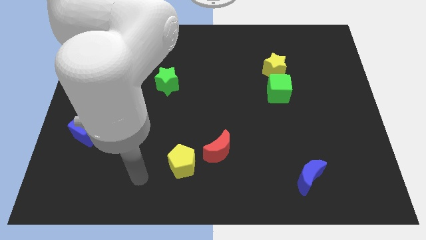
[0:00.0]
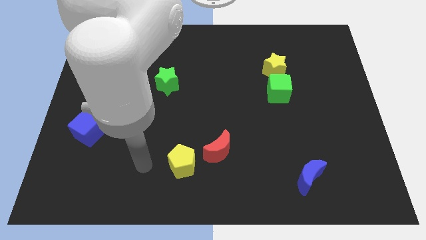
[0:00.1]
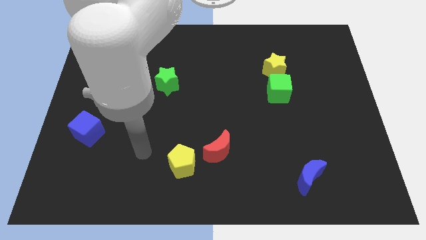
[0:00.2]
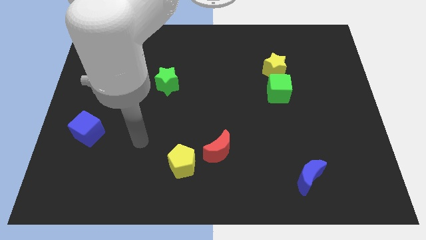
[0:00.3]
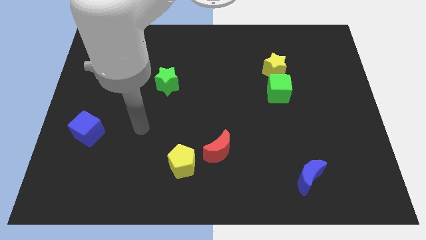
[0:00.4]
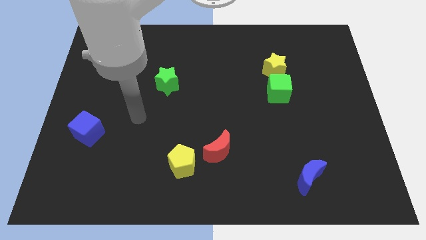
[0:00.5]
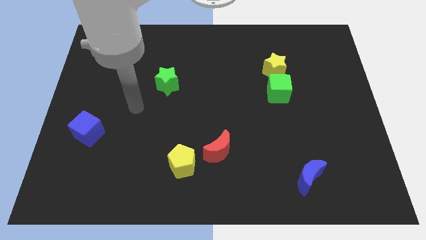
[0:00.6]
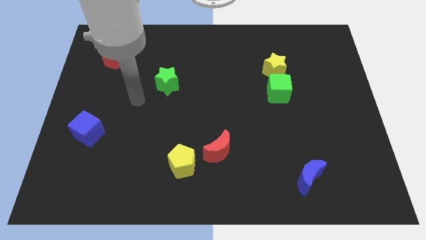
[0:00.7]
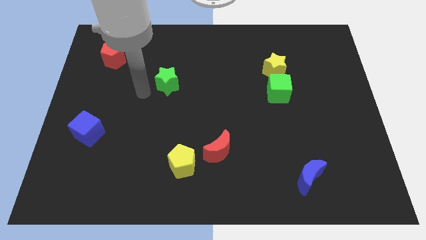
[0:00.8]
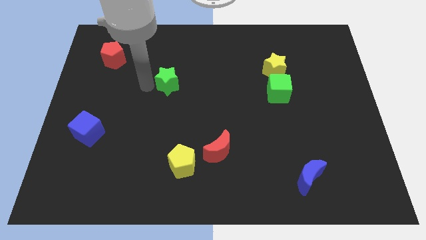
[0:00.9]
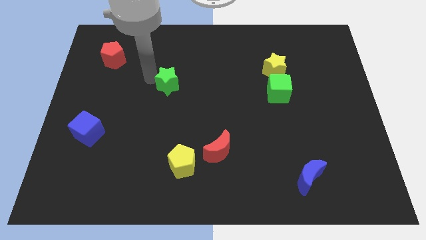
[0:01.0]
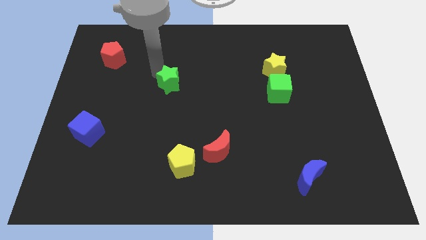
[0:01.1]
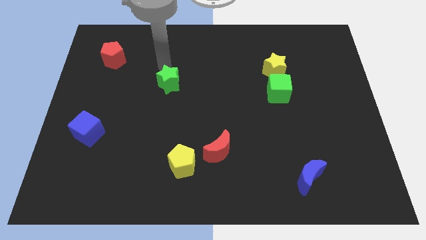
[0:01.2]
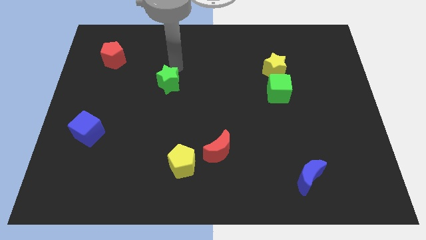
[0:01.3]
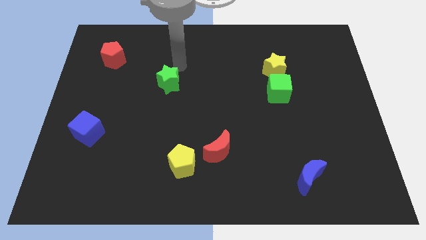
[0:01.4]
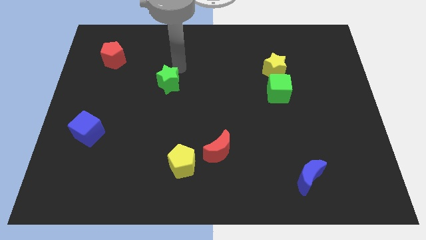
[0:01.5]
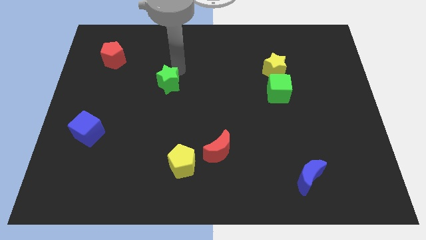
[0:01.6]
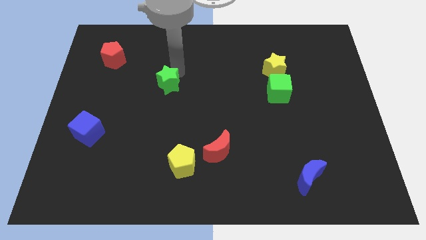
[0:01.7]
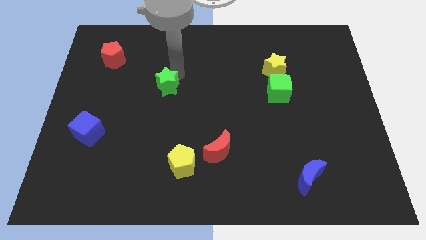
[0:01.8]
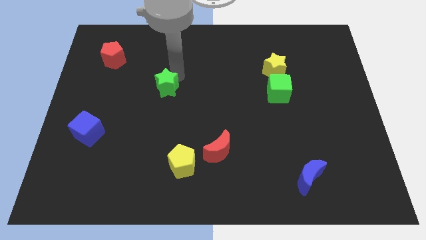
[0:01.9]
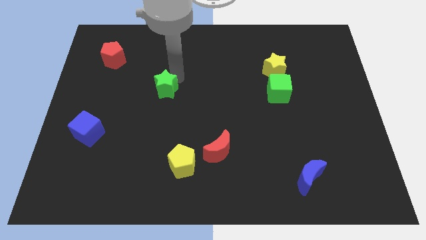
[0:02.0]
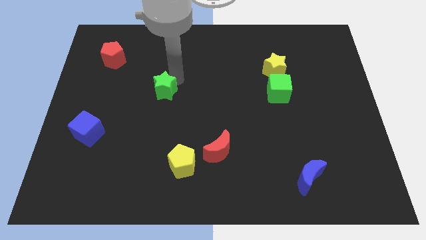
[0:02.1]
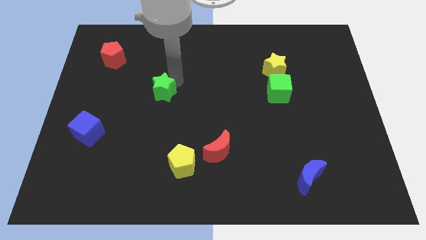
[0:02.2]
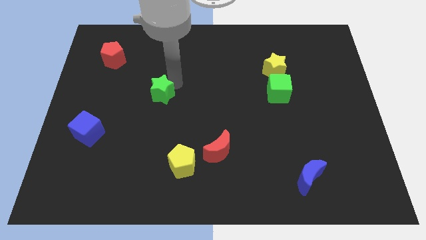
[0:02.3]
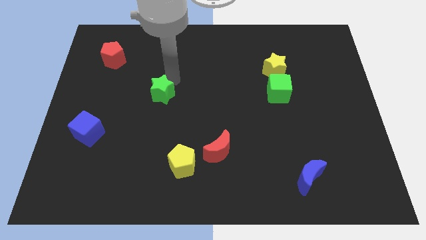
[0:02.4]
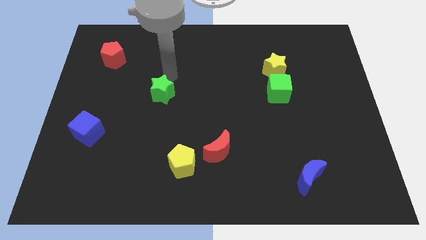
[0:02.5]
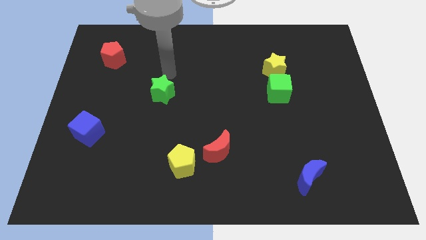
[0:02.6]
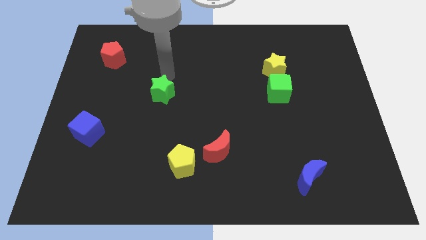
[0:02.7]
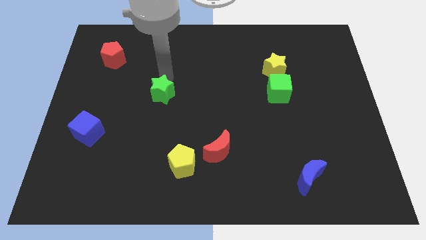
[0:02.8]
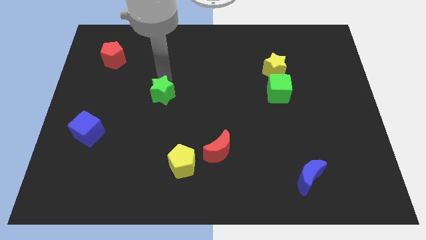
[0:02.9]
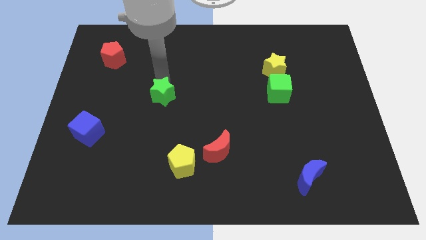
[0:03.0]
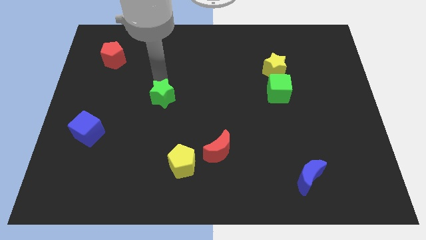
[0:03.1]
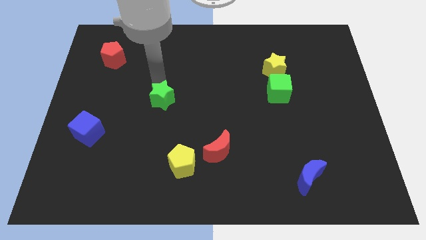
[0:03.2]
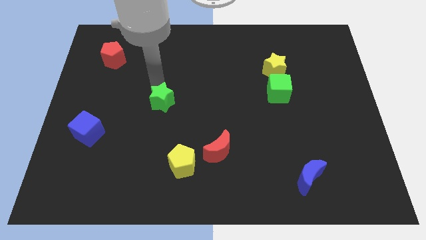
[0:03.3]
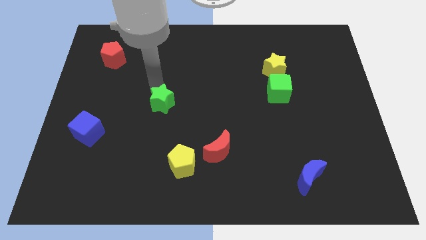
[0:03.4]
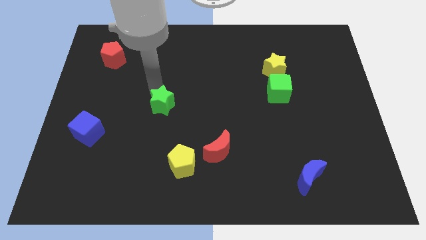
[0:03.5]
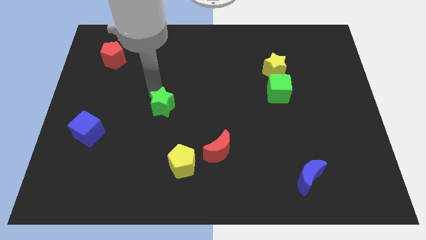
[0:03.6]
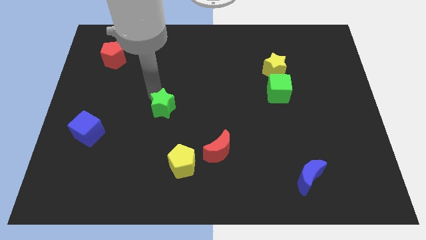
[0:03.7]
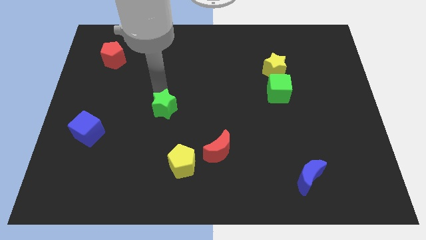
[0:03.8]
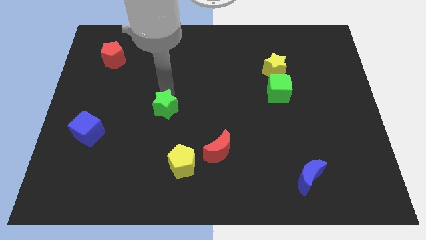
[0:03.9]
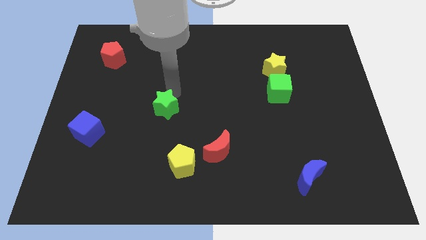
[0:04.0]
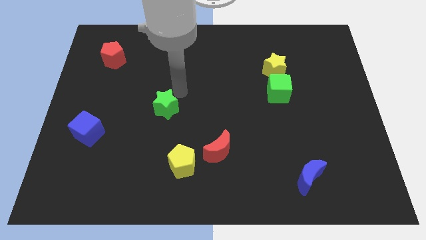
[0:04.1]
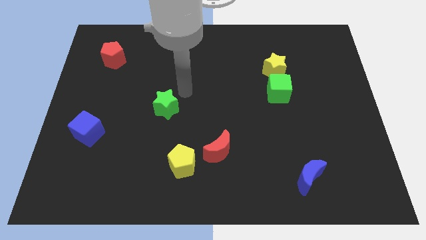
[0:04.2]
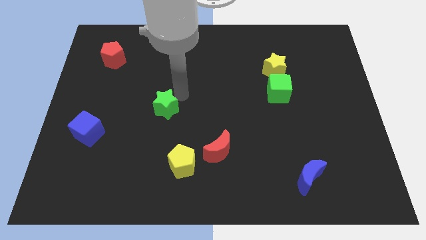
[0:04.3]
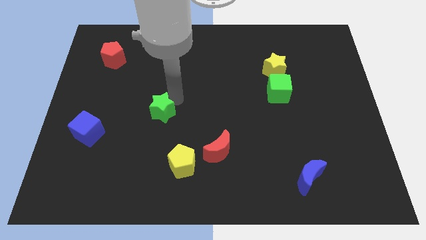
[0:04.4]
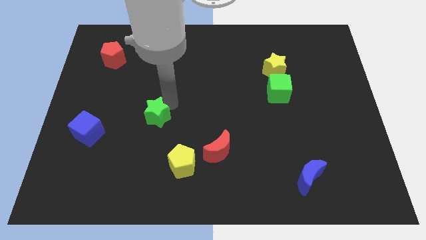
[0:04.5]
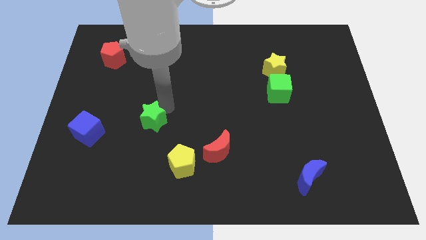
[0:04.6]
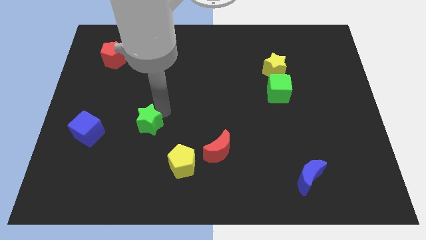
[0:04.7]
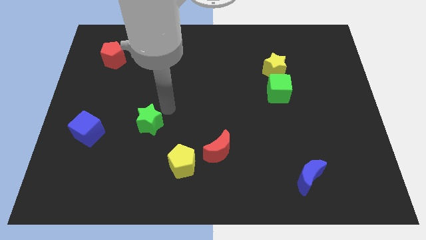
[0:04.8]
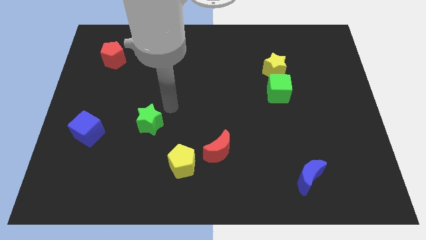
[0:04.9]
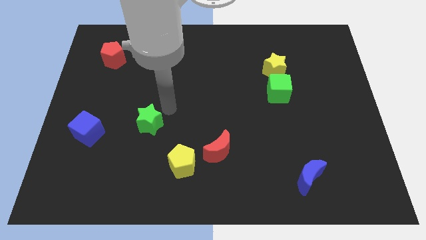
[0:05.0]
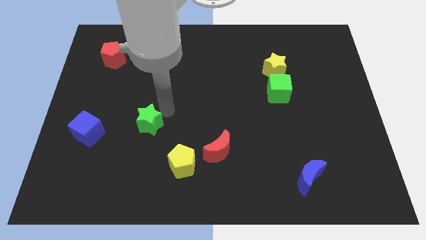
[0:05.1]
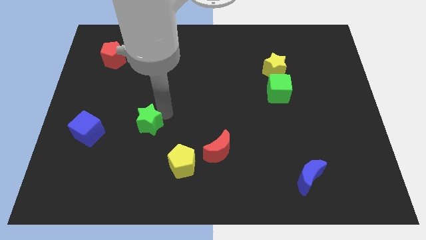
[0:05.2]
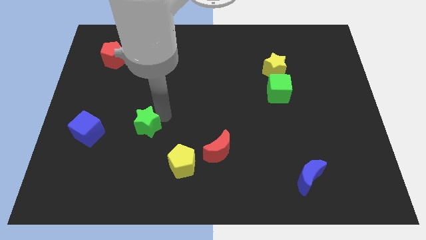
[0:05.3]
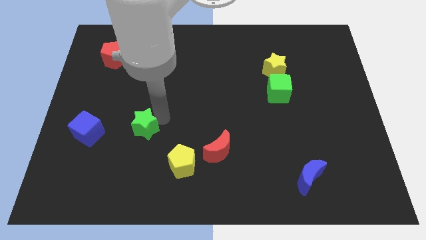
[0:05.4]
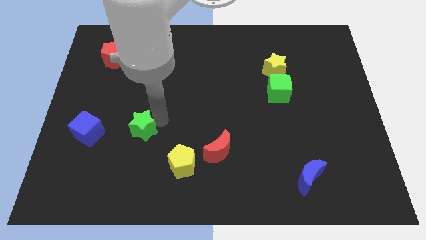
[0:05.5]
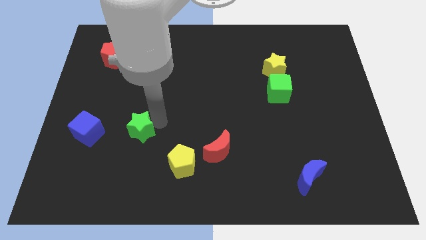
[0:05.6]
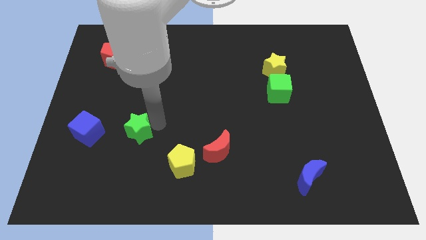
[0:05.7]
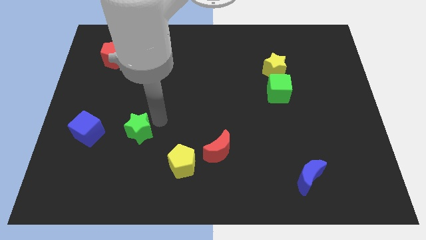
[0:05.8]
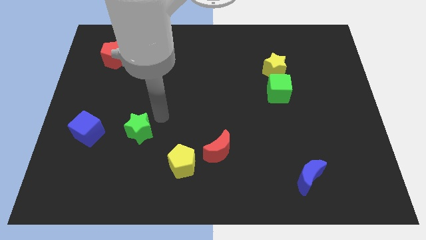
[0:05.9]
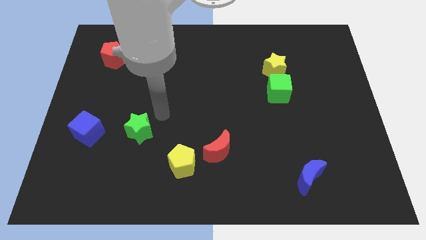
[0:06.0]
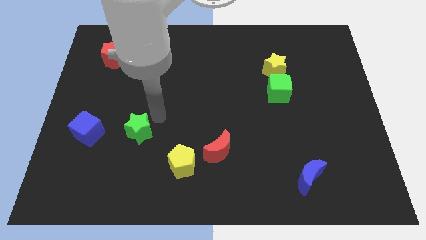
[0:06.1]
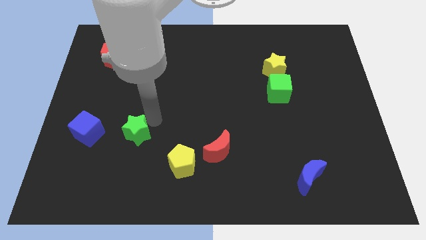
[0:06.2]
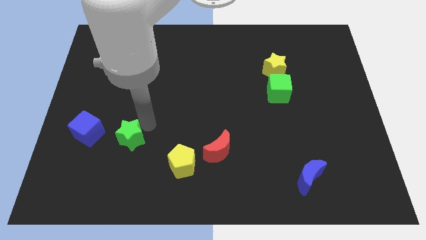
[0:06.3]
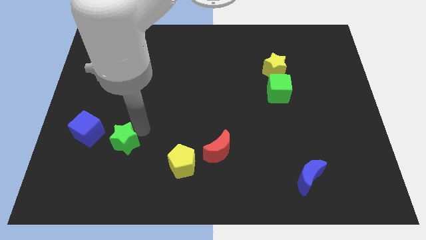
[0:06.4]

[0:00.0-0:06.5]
move the green star diagonally down and to the right of the blue cube

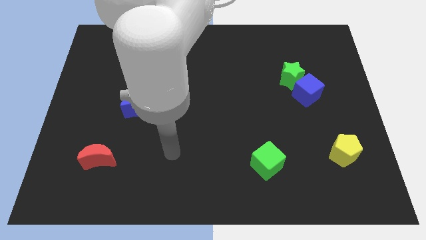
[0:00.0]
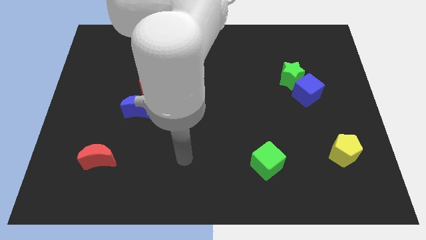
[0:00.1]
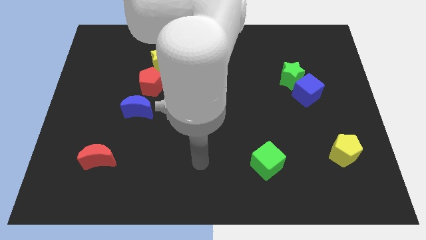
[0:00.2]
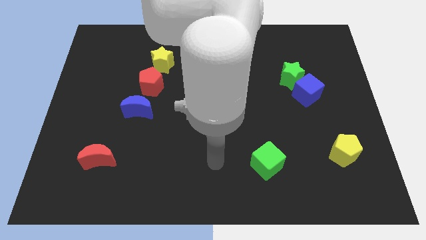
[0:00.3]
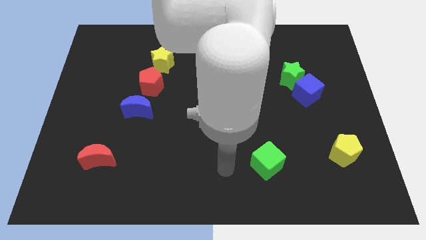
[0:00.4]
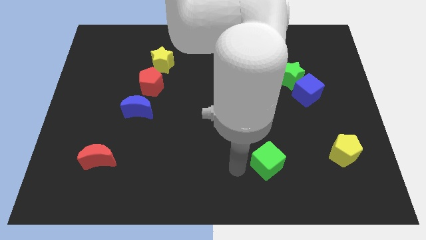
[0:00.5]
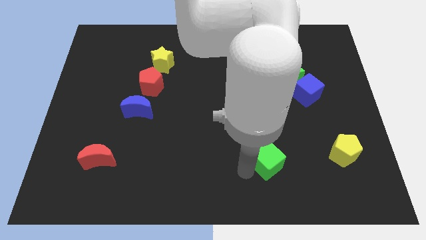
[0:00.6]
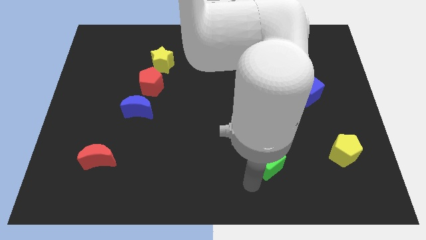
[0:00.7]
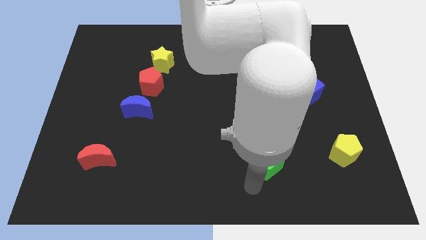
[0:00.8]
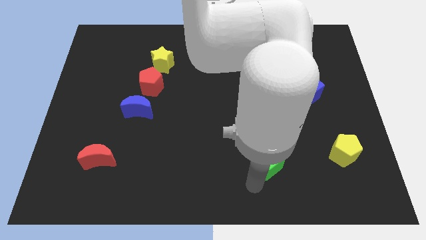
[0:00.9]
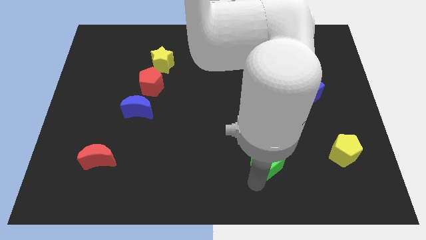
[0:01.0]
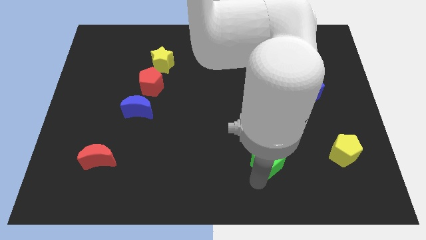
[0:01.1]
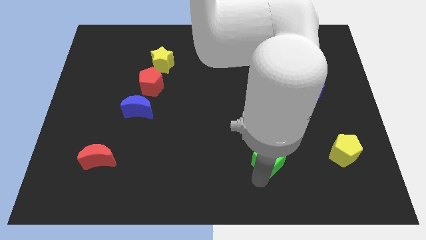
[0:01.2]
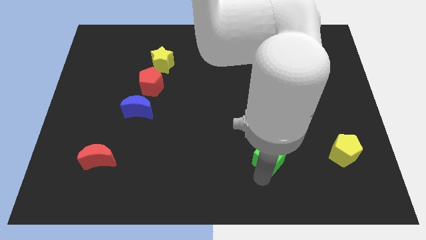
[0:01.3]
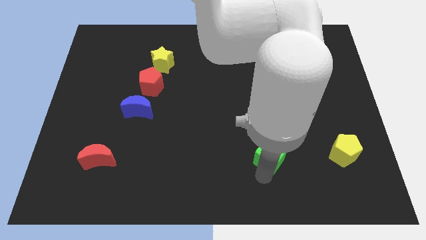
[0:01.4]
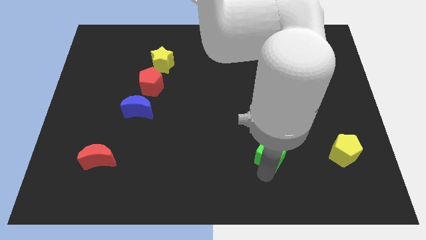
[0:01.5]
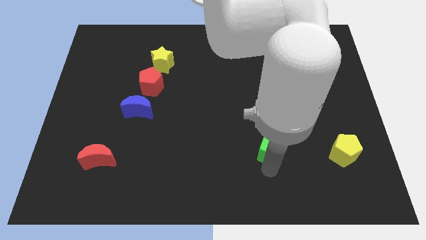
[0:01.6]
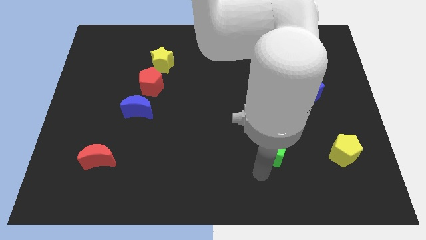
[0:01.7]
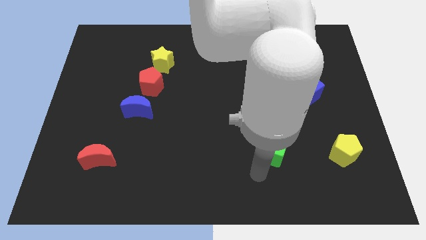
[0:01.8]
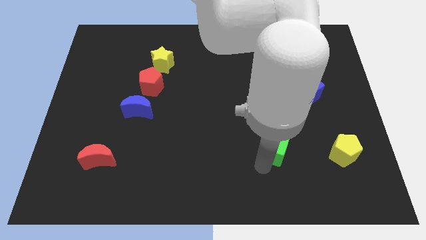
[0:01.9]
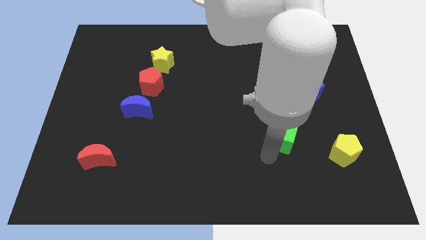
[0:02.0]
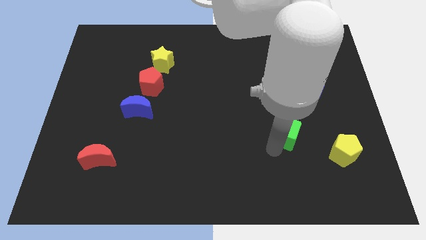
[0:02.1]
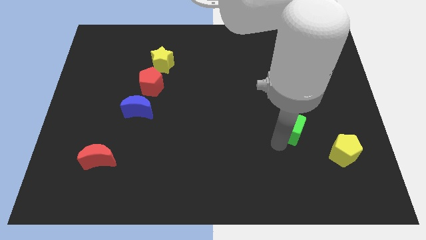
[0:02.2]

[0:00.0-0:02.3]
push the green cube below the green star
